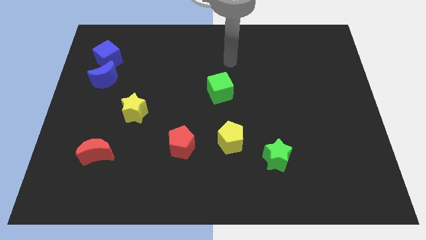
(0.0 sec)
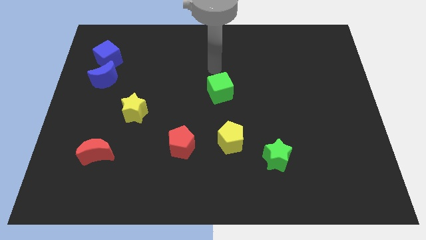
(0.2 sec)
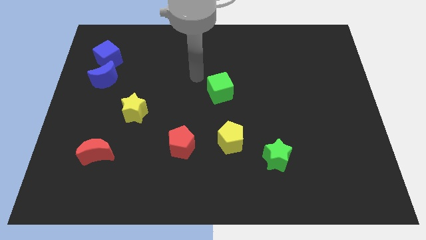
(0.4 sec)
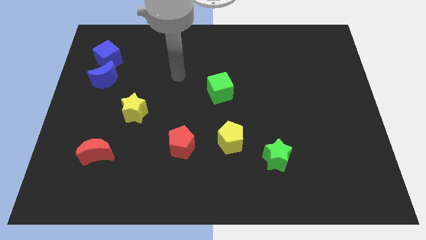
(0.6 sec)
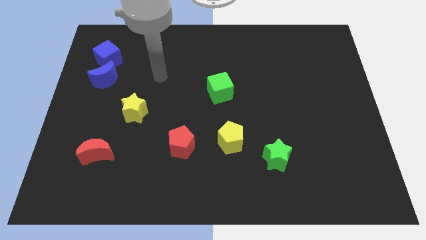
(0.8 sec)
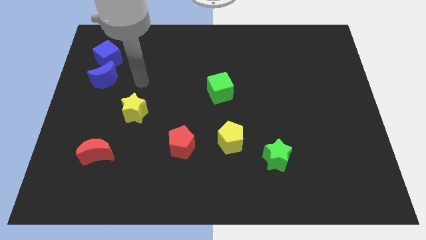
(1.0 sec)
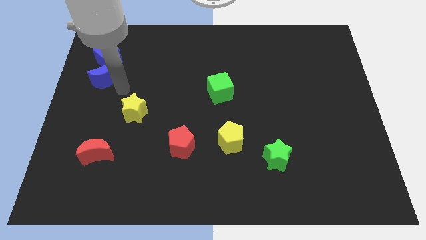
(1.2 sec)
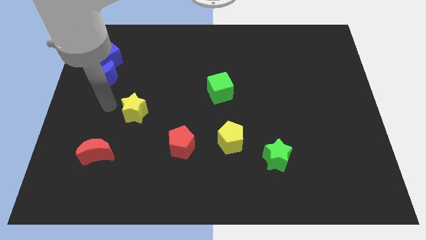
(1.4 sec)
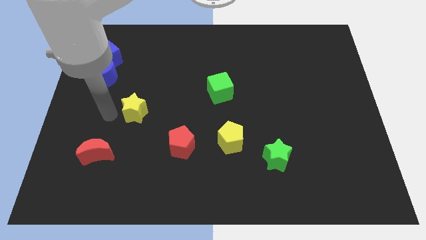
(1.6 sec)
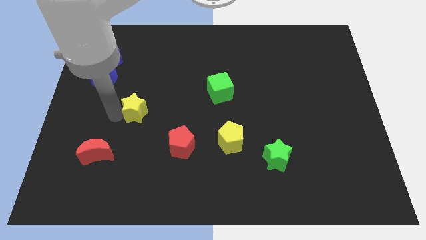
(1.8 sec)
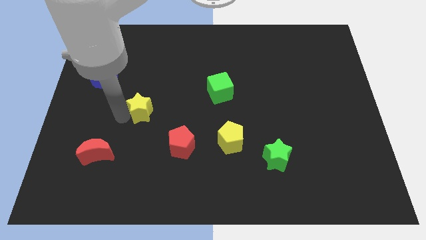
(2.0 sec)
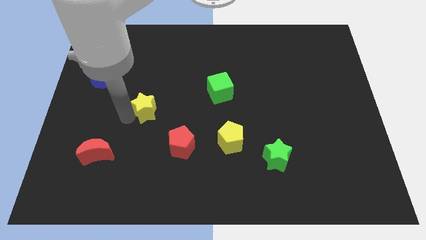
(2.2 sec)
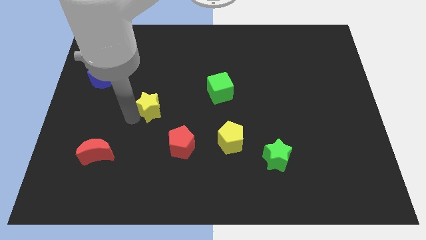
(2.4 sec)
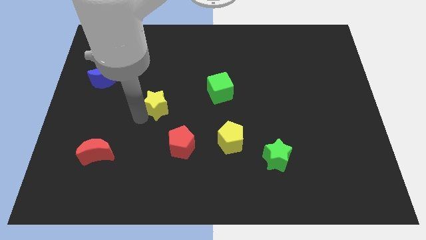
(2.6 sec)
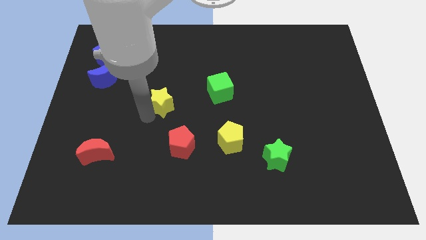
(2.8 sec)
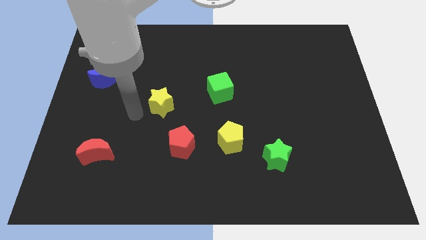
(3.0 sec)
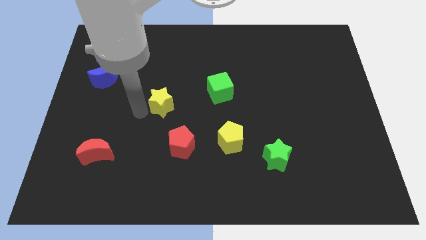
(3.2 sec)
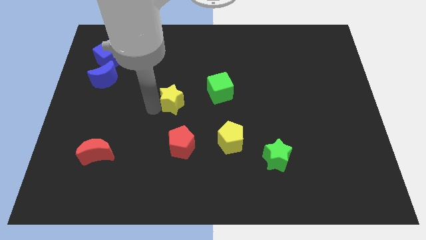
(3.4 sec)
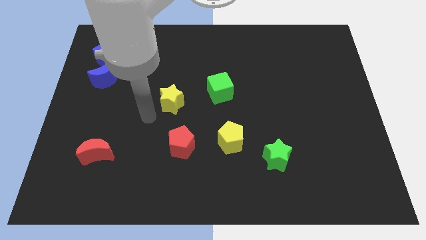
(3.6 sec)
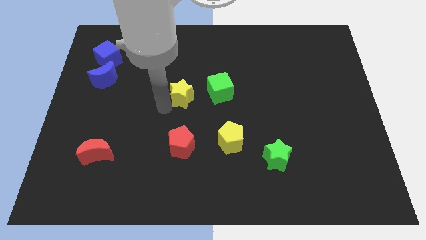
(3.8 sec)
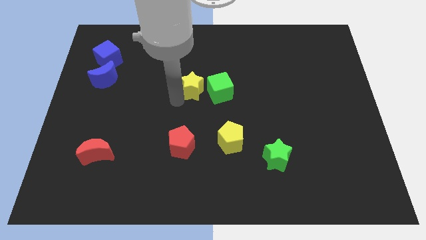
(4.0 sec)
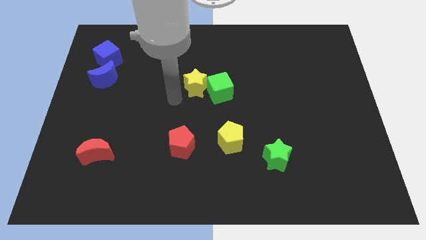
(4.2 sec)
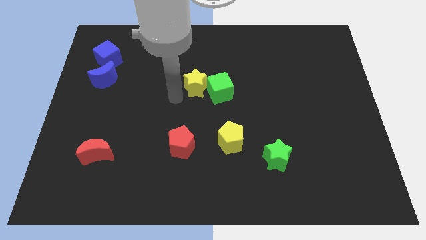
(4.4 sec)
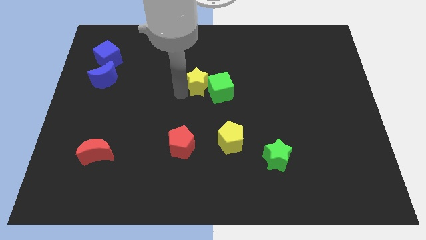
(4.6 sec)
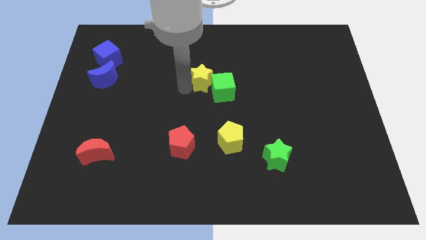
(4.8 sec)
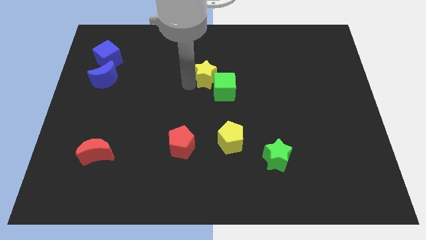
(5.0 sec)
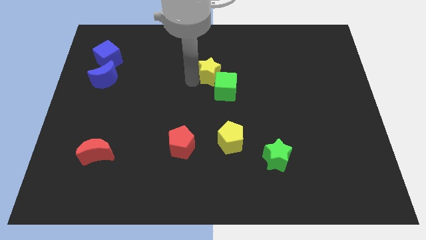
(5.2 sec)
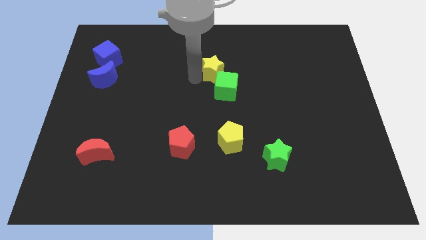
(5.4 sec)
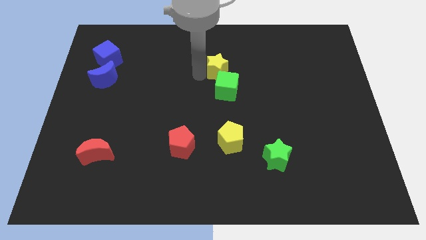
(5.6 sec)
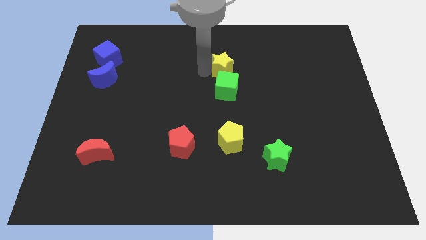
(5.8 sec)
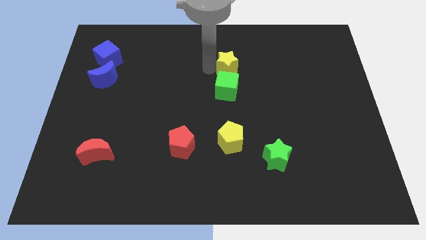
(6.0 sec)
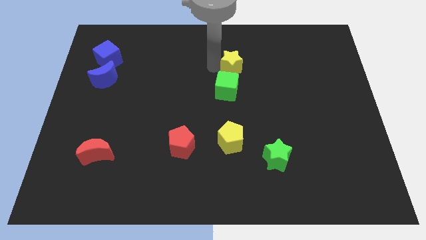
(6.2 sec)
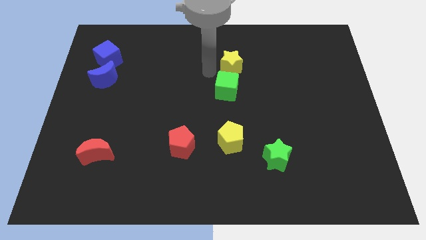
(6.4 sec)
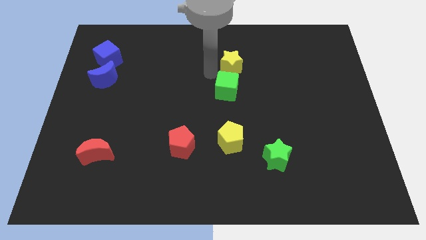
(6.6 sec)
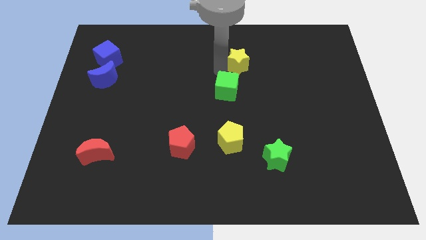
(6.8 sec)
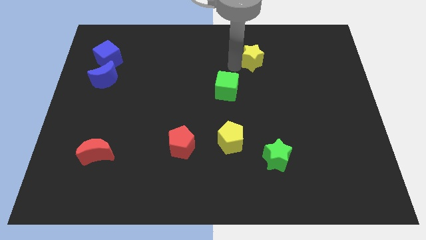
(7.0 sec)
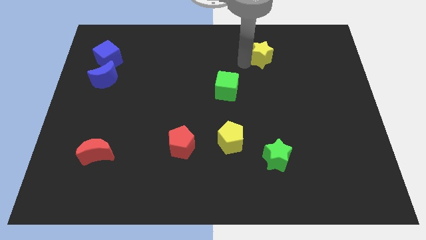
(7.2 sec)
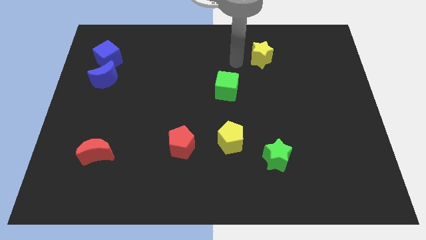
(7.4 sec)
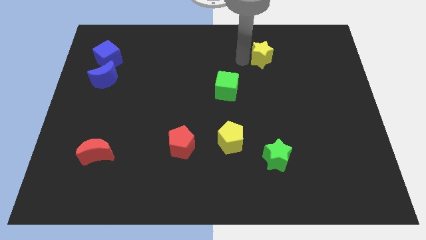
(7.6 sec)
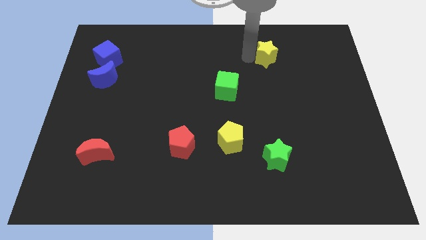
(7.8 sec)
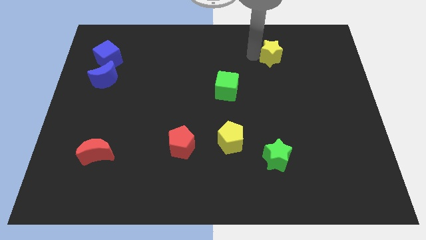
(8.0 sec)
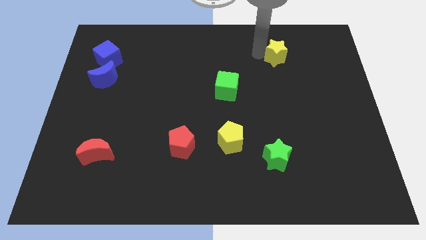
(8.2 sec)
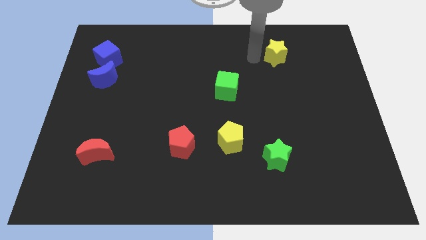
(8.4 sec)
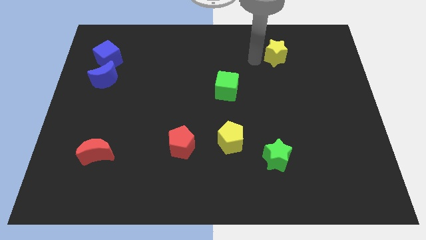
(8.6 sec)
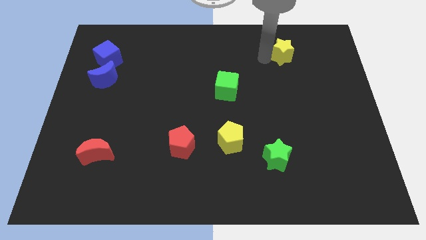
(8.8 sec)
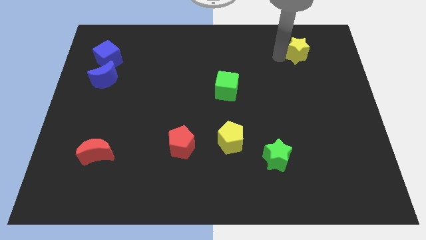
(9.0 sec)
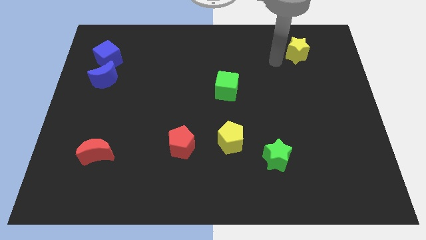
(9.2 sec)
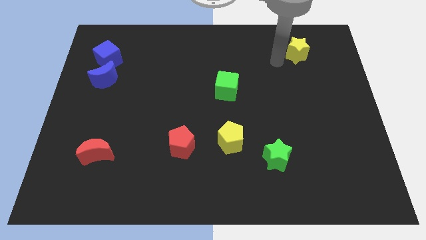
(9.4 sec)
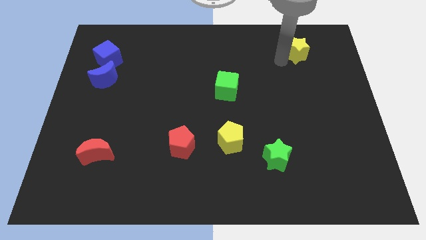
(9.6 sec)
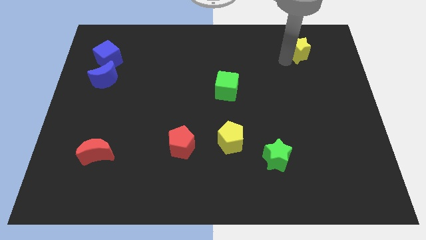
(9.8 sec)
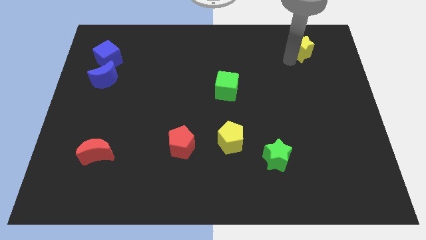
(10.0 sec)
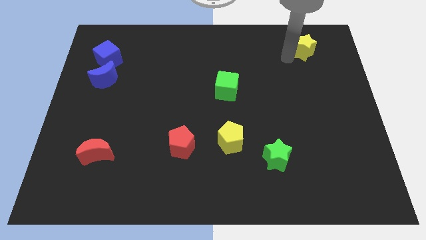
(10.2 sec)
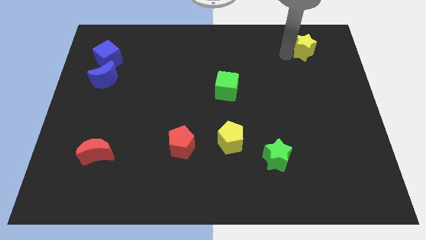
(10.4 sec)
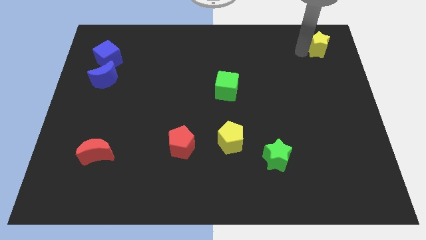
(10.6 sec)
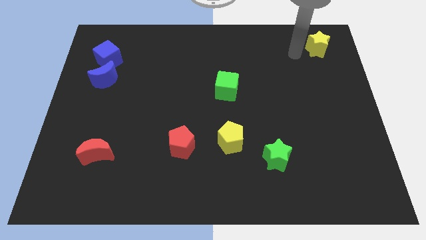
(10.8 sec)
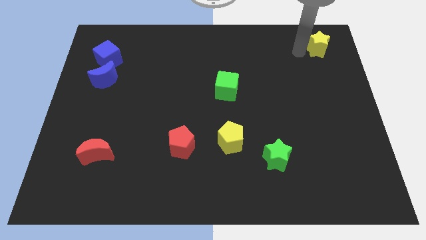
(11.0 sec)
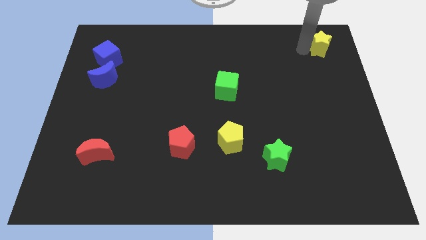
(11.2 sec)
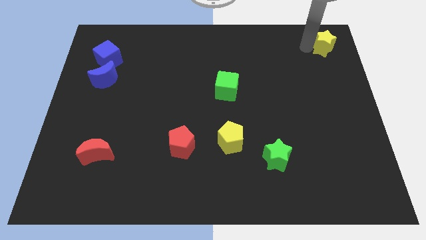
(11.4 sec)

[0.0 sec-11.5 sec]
put the yellow star to the top right corner

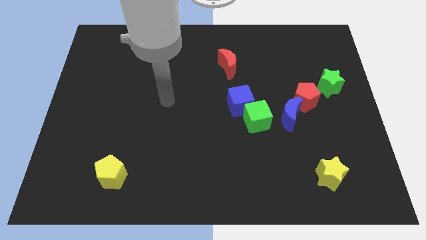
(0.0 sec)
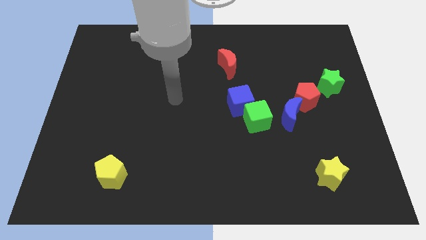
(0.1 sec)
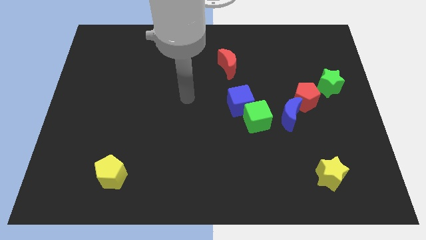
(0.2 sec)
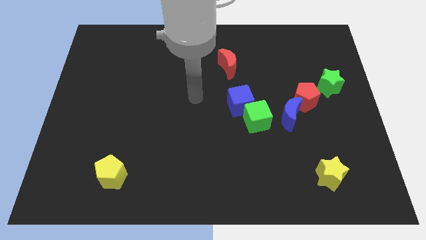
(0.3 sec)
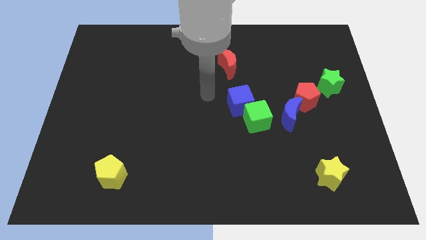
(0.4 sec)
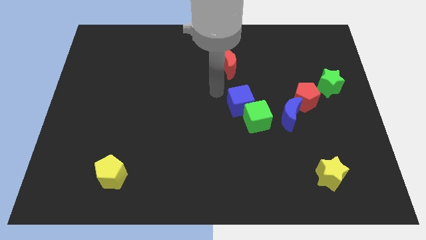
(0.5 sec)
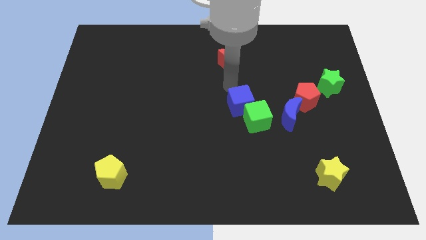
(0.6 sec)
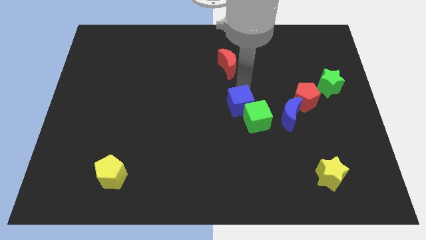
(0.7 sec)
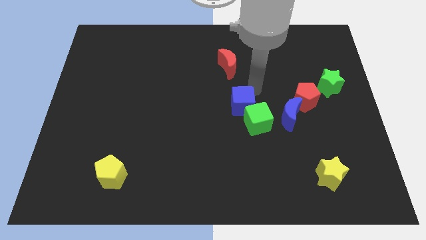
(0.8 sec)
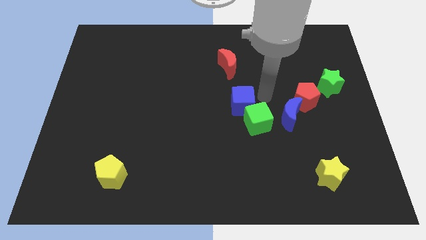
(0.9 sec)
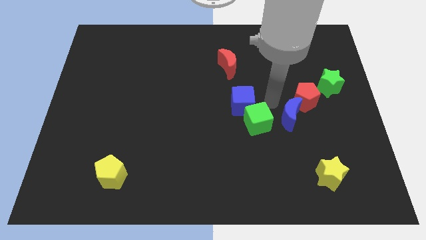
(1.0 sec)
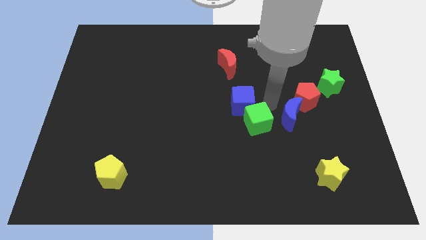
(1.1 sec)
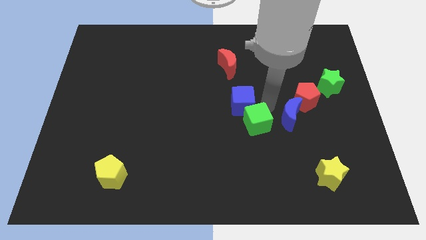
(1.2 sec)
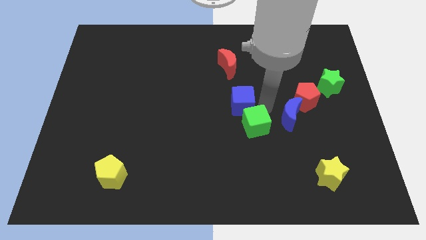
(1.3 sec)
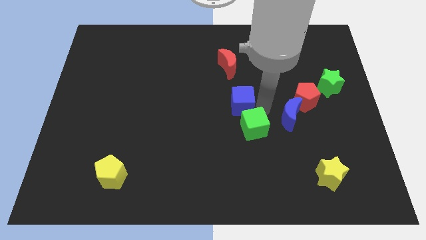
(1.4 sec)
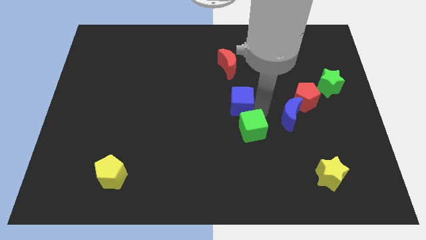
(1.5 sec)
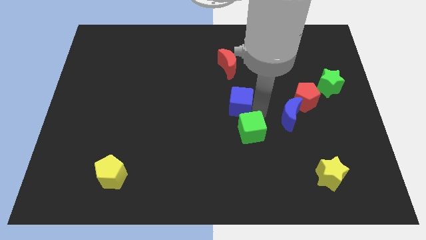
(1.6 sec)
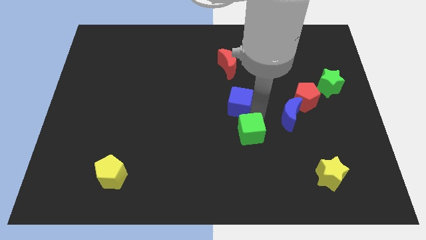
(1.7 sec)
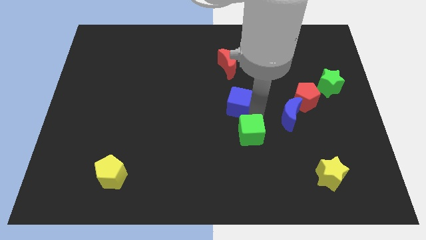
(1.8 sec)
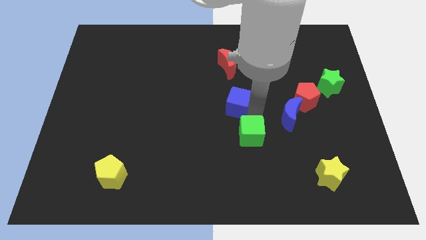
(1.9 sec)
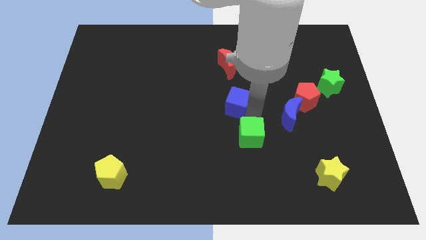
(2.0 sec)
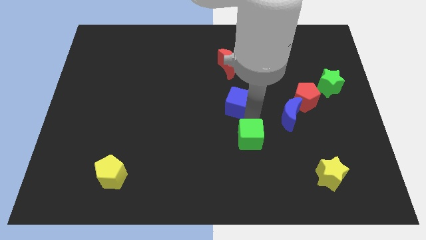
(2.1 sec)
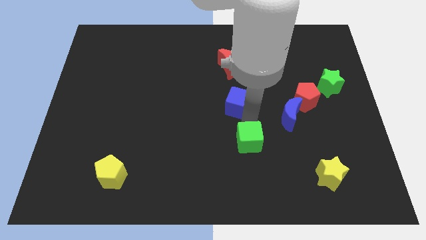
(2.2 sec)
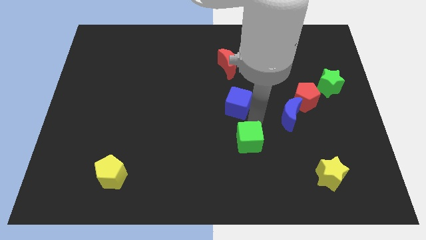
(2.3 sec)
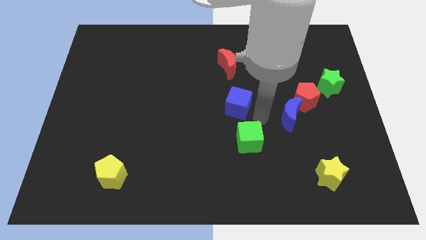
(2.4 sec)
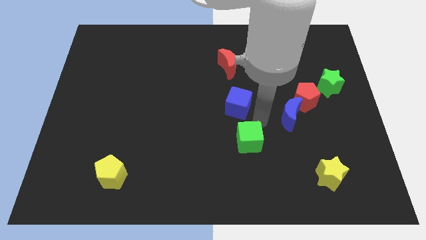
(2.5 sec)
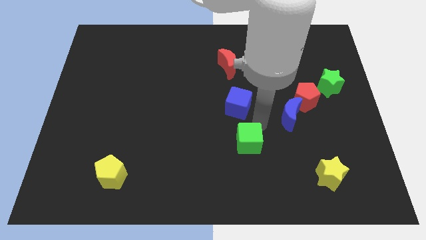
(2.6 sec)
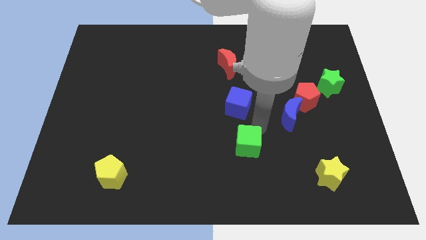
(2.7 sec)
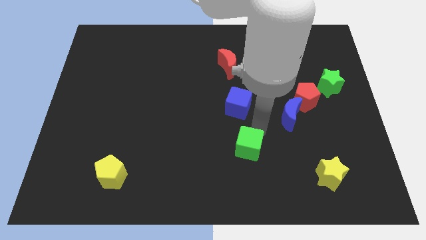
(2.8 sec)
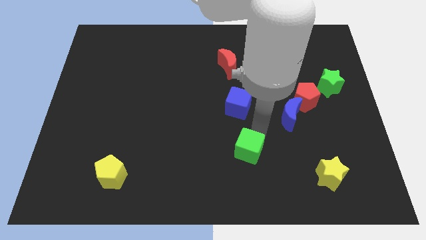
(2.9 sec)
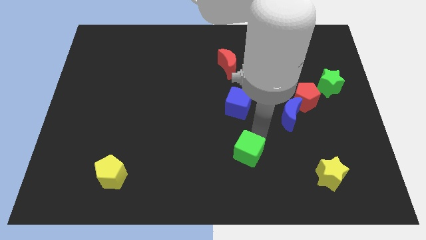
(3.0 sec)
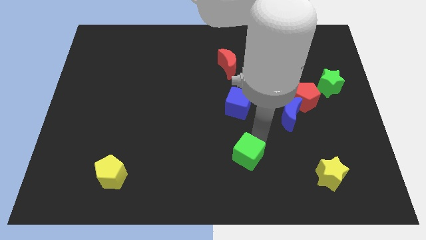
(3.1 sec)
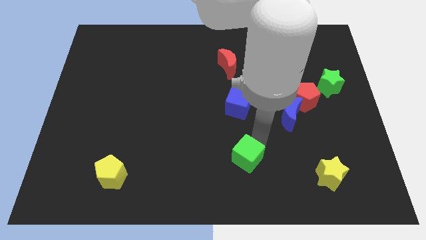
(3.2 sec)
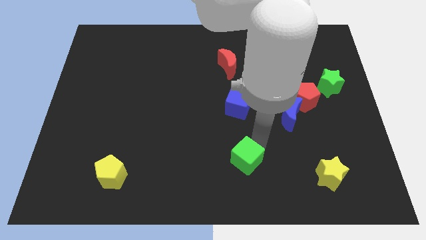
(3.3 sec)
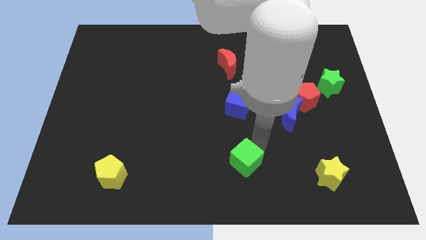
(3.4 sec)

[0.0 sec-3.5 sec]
move the green cube to the bottom
